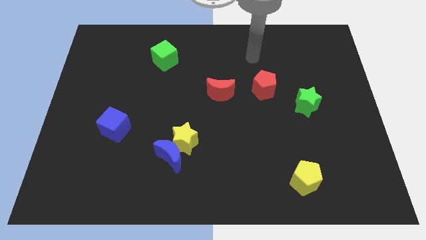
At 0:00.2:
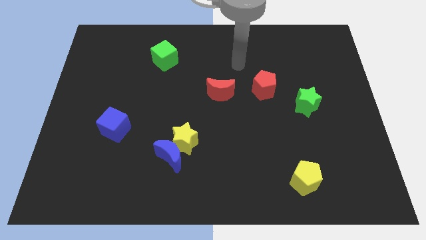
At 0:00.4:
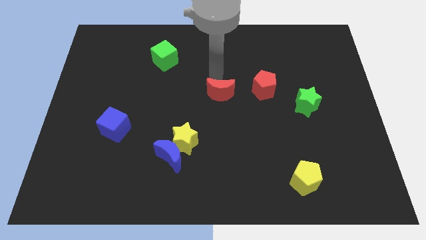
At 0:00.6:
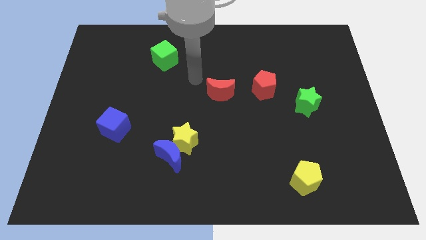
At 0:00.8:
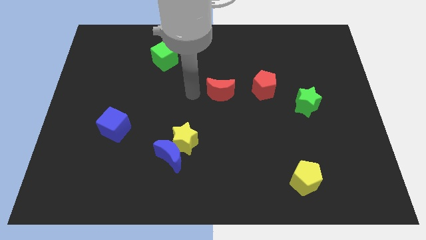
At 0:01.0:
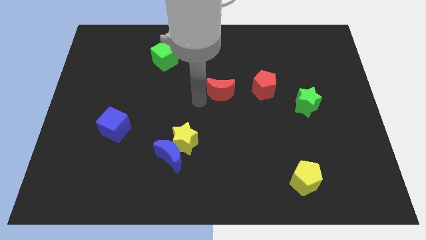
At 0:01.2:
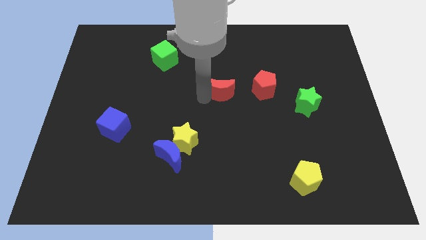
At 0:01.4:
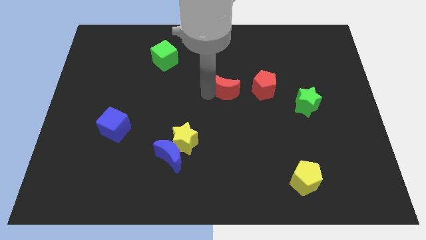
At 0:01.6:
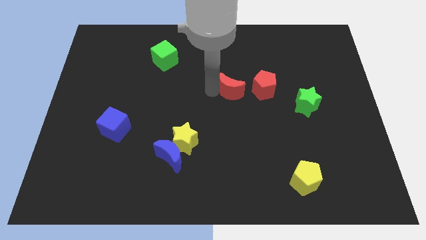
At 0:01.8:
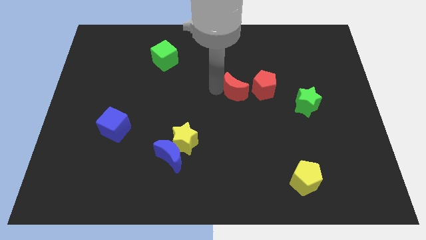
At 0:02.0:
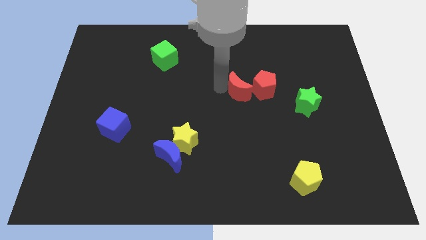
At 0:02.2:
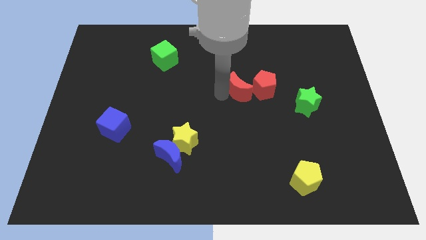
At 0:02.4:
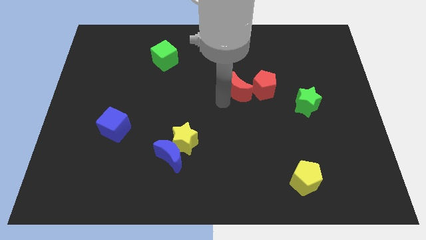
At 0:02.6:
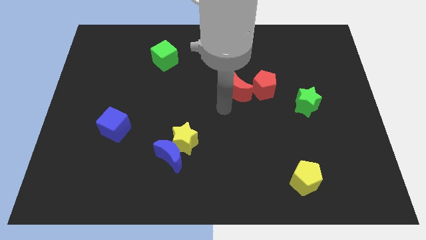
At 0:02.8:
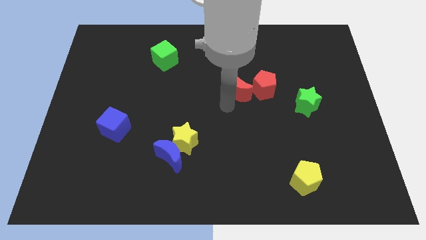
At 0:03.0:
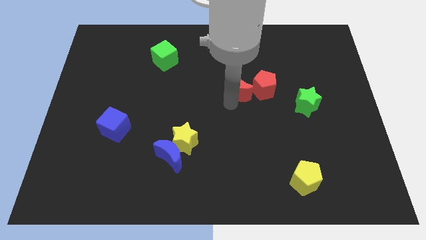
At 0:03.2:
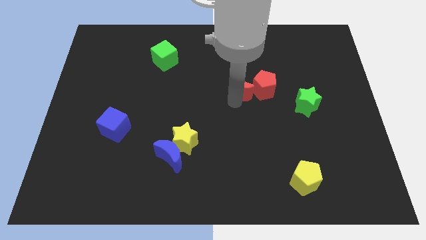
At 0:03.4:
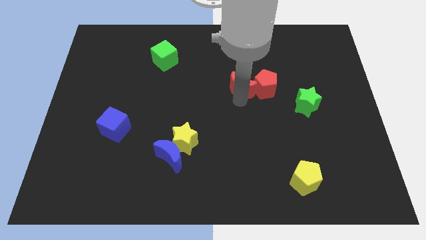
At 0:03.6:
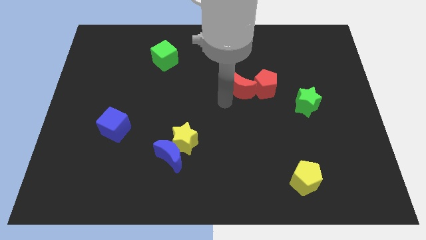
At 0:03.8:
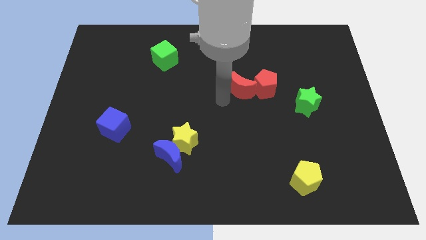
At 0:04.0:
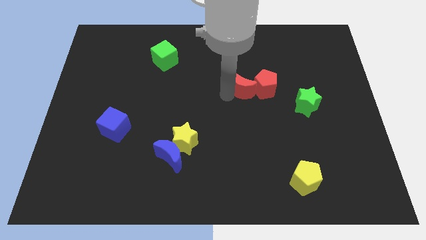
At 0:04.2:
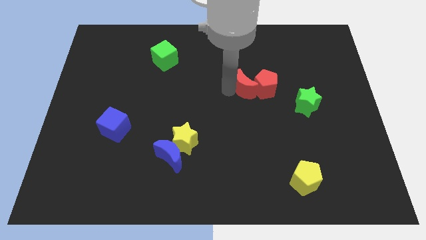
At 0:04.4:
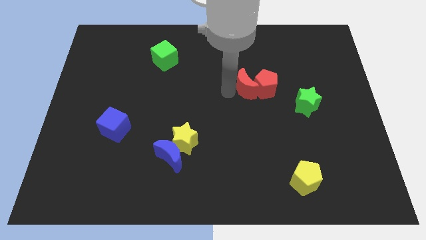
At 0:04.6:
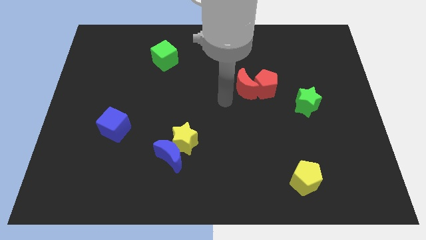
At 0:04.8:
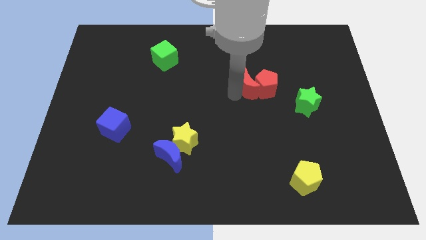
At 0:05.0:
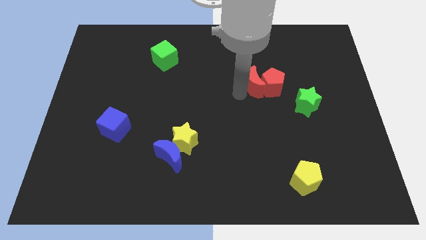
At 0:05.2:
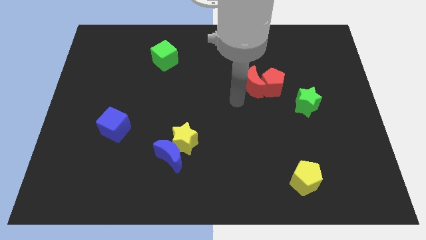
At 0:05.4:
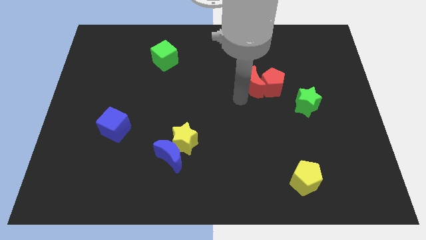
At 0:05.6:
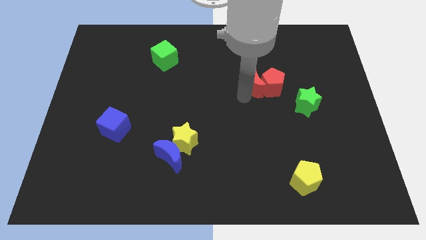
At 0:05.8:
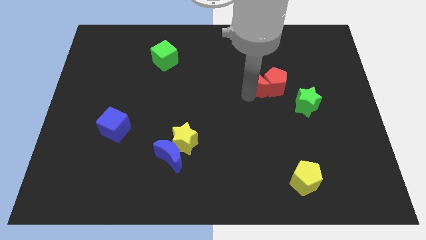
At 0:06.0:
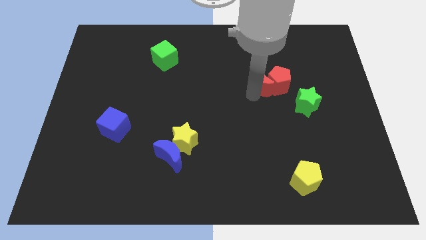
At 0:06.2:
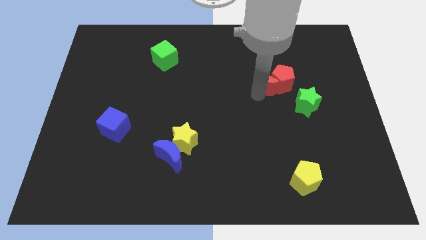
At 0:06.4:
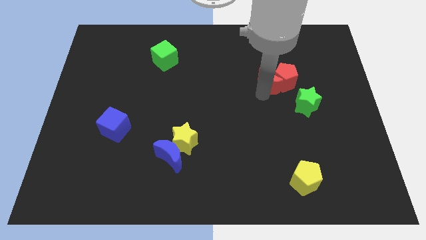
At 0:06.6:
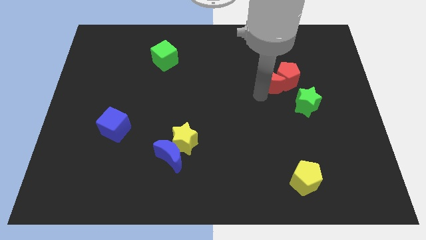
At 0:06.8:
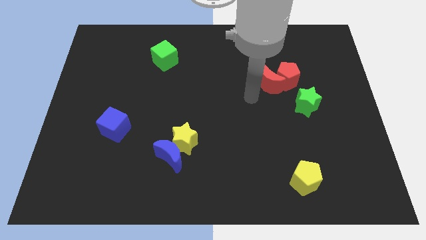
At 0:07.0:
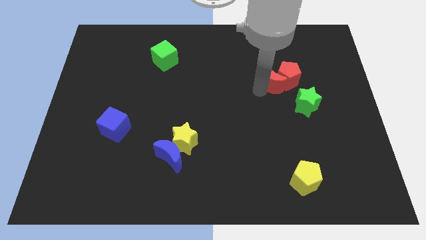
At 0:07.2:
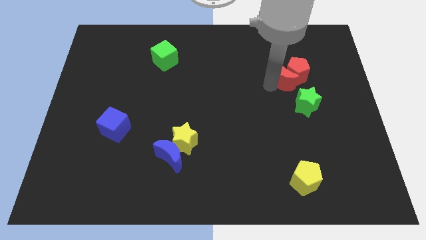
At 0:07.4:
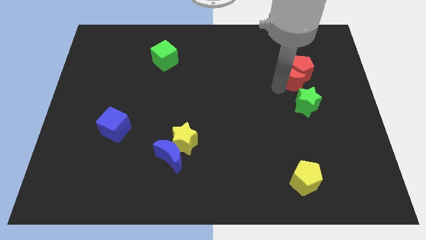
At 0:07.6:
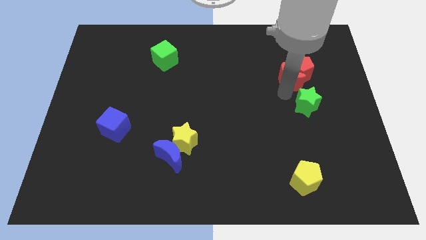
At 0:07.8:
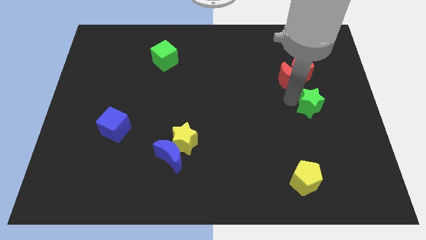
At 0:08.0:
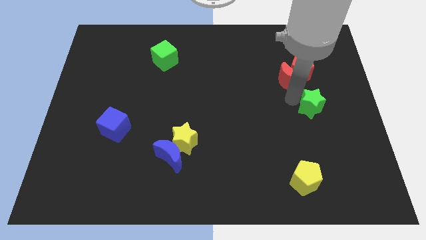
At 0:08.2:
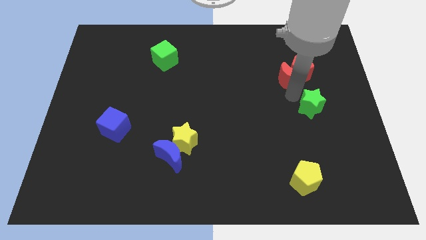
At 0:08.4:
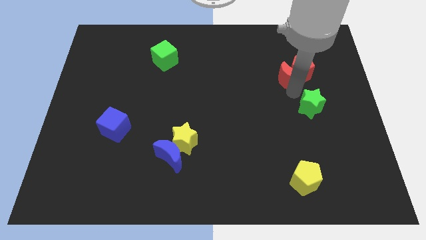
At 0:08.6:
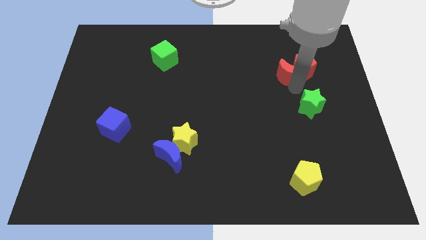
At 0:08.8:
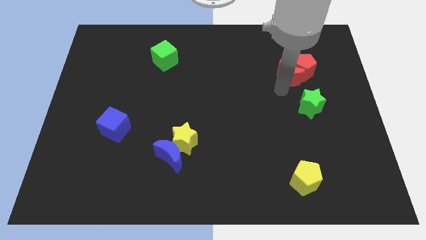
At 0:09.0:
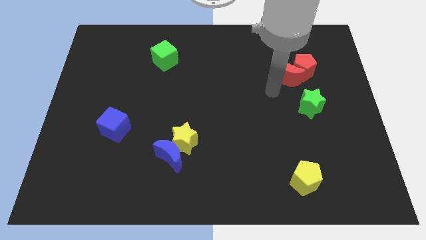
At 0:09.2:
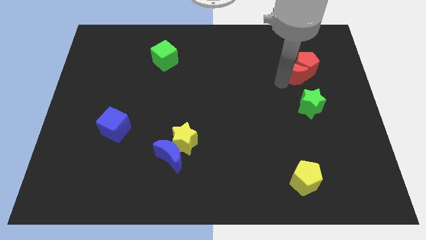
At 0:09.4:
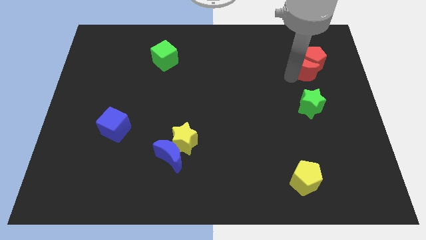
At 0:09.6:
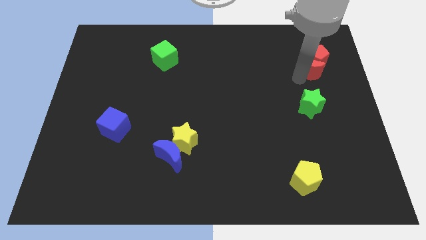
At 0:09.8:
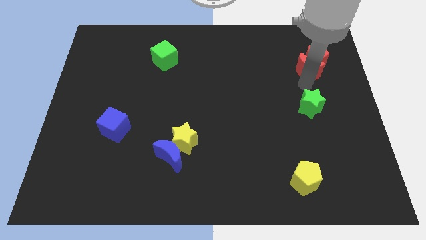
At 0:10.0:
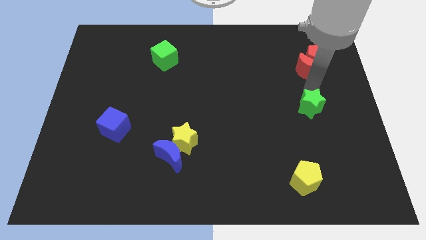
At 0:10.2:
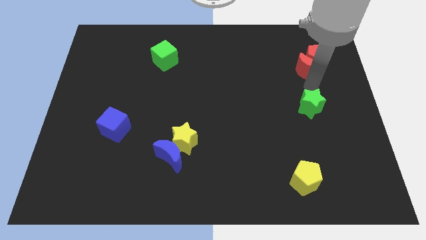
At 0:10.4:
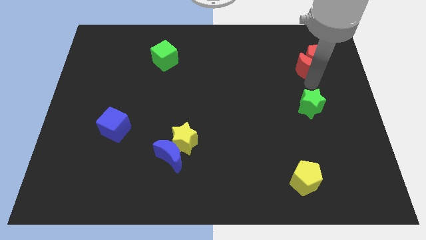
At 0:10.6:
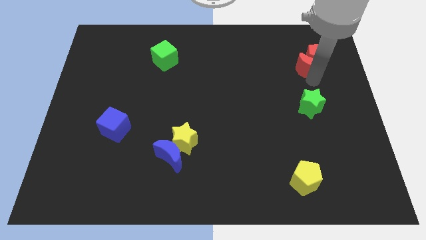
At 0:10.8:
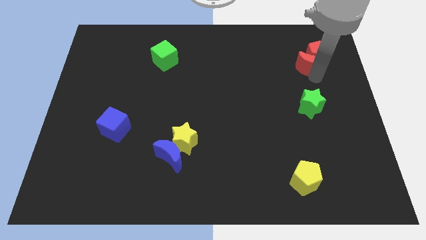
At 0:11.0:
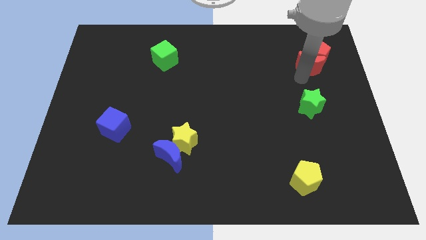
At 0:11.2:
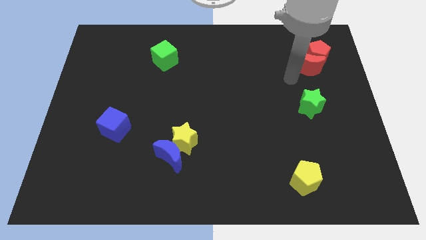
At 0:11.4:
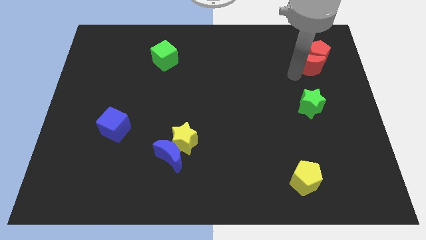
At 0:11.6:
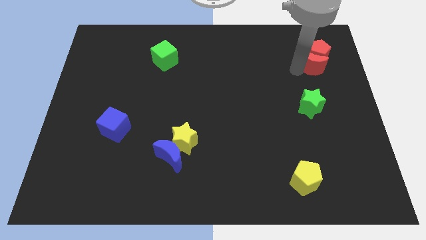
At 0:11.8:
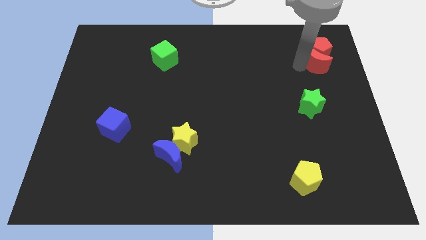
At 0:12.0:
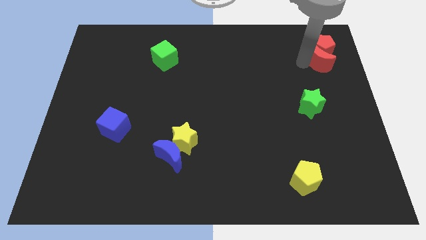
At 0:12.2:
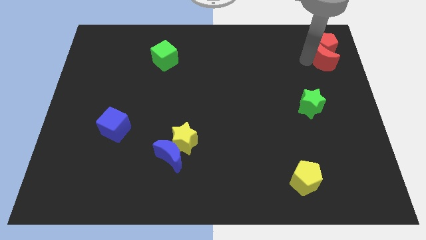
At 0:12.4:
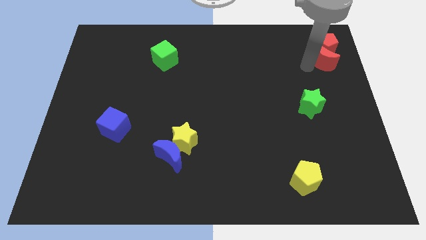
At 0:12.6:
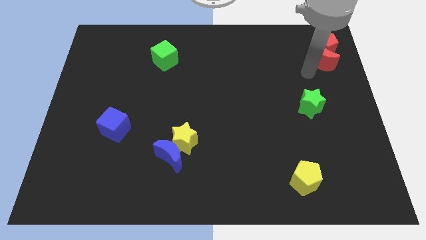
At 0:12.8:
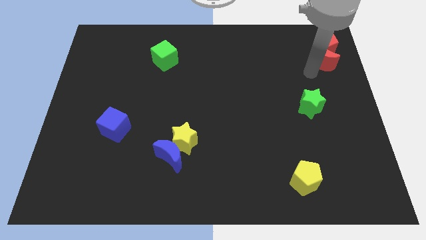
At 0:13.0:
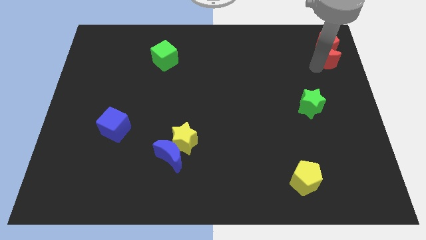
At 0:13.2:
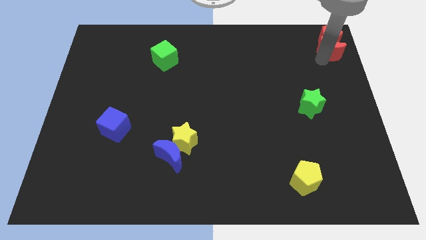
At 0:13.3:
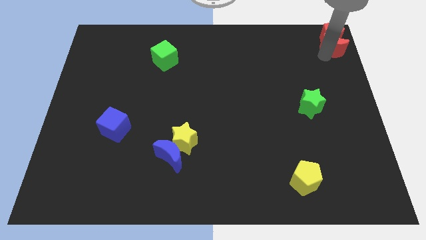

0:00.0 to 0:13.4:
slide the red moon to the upper right corner
